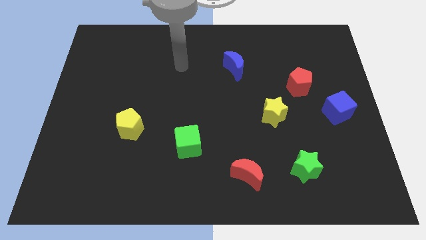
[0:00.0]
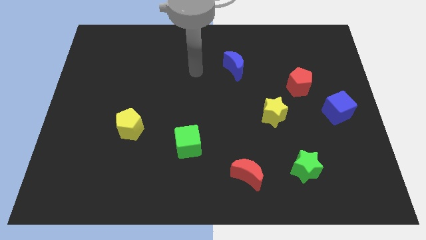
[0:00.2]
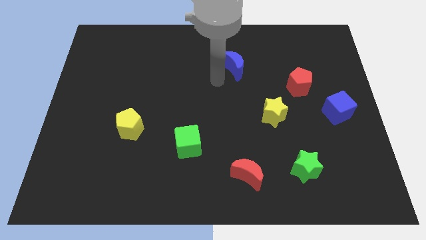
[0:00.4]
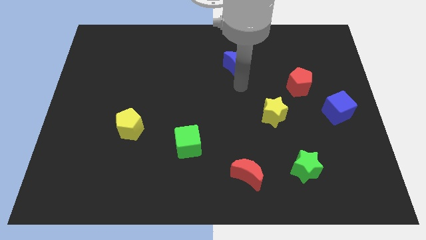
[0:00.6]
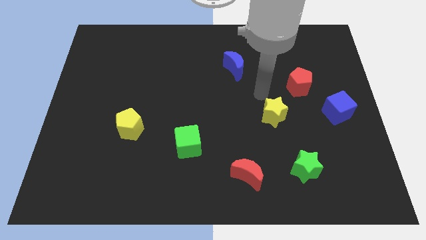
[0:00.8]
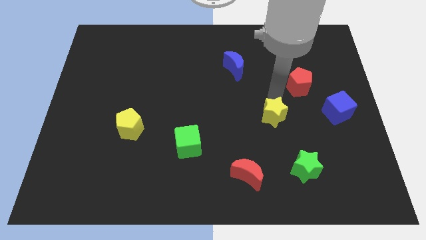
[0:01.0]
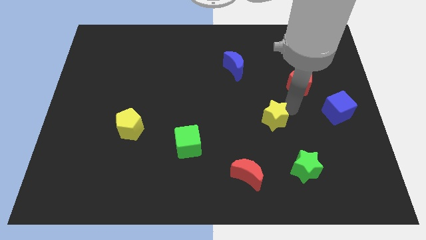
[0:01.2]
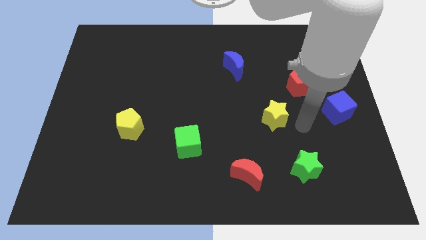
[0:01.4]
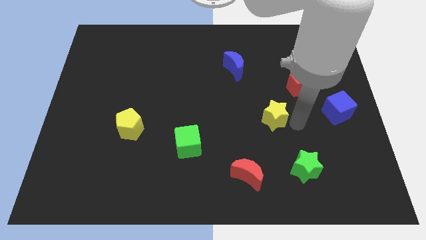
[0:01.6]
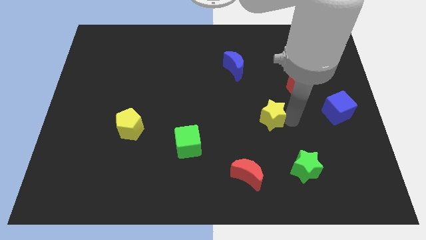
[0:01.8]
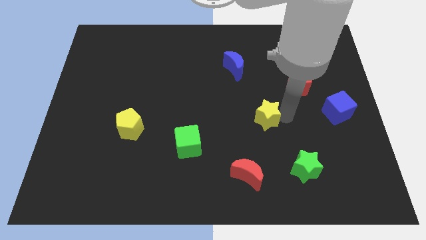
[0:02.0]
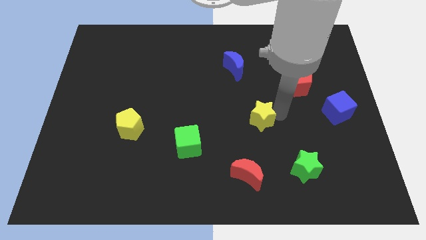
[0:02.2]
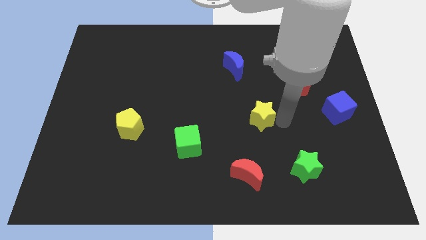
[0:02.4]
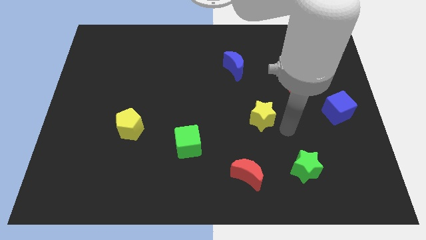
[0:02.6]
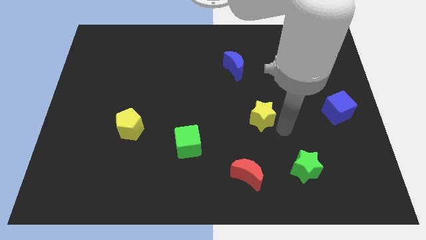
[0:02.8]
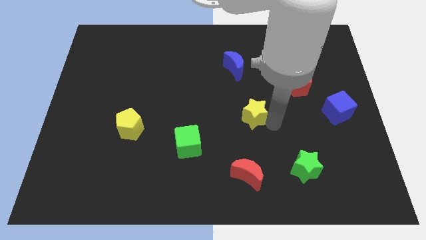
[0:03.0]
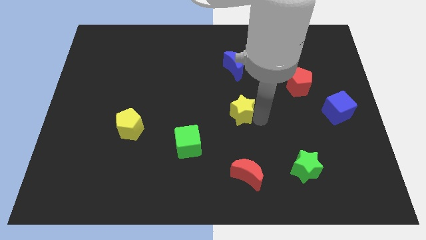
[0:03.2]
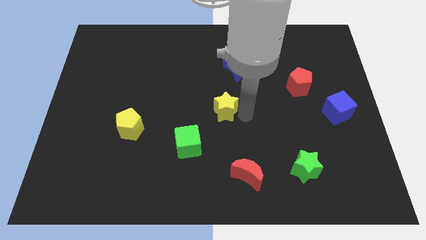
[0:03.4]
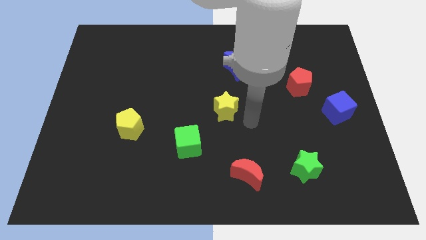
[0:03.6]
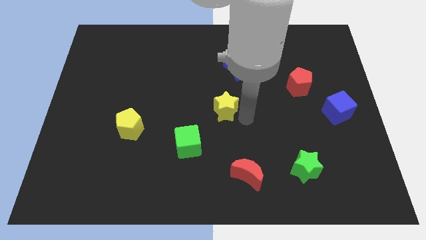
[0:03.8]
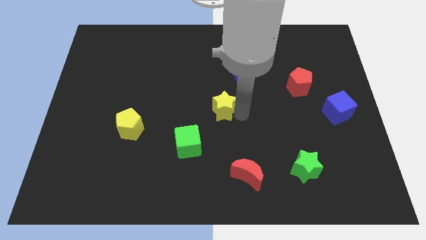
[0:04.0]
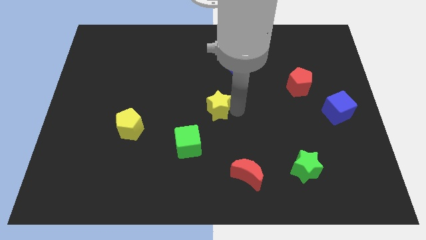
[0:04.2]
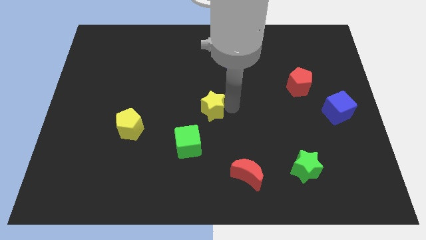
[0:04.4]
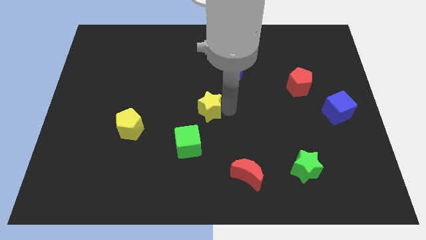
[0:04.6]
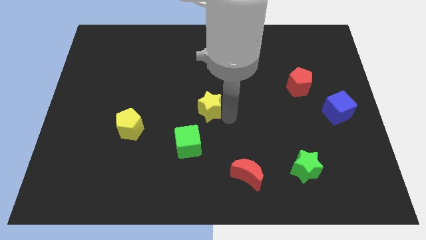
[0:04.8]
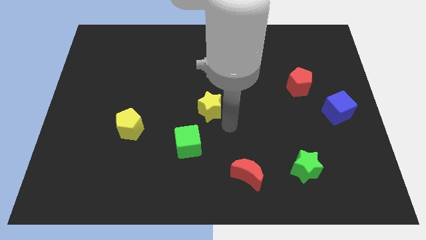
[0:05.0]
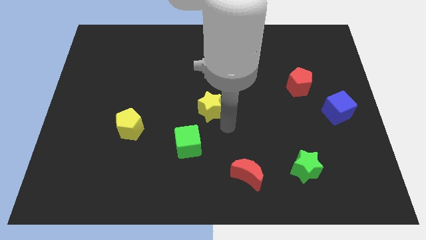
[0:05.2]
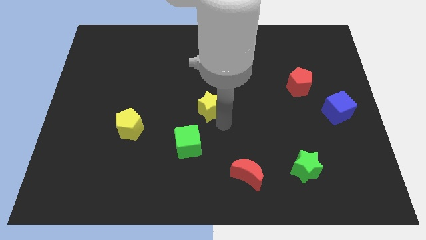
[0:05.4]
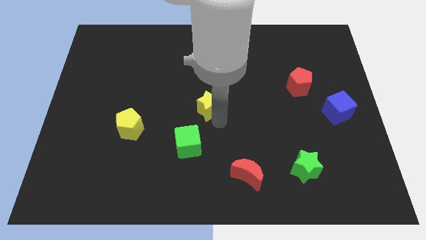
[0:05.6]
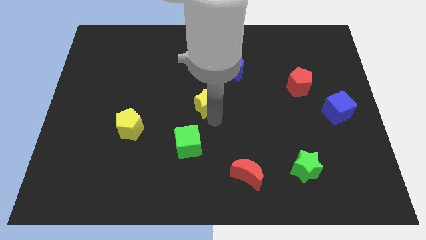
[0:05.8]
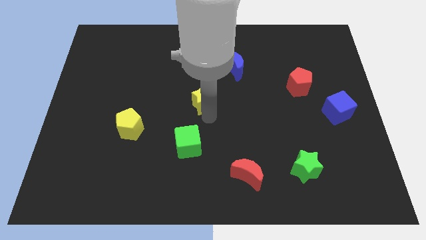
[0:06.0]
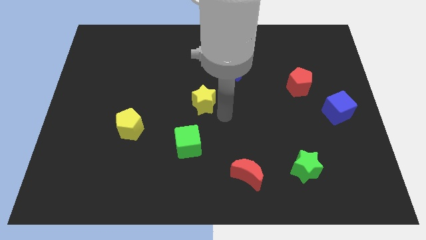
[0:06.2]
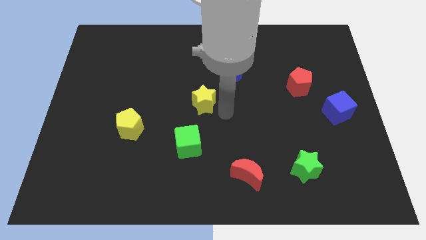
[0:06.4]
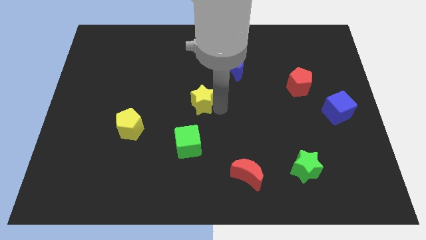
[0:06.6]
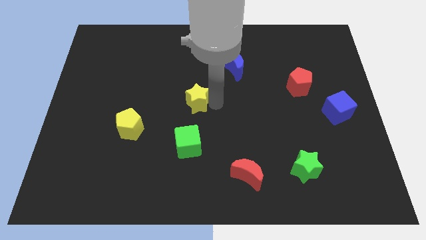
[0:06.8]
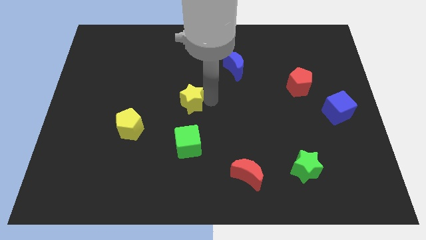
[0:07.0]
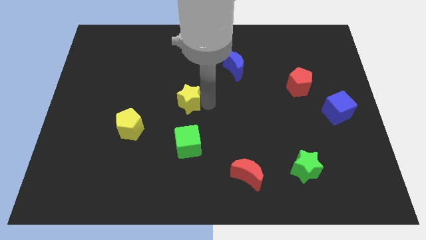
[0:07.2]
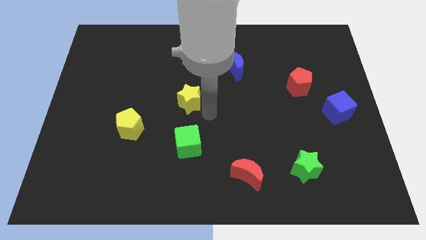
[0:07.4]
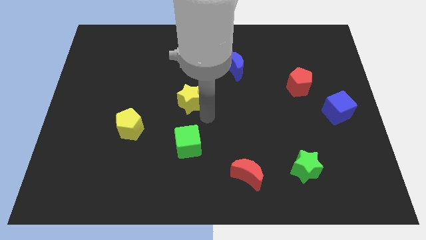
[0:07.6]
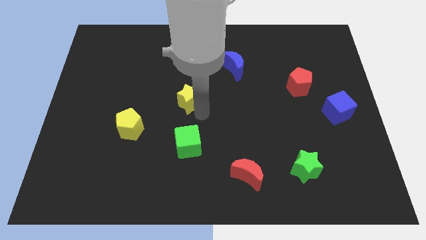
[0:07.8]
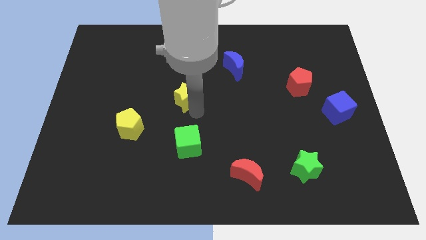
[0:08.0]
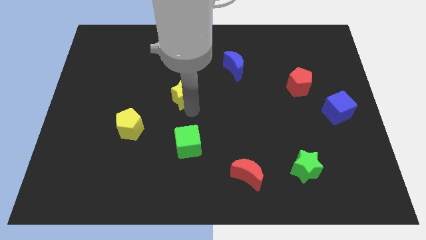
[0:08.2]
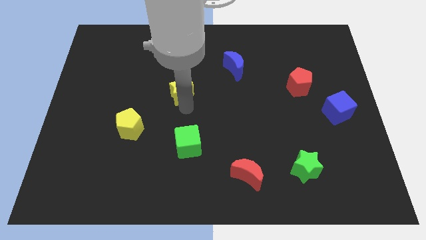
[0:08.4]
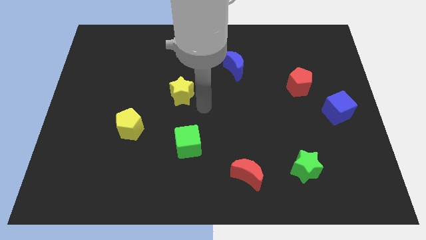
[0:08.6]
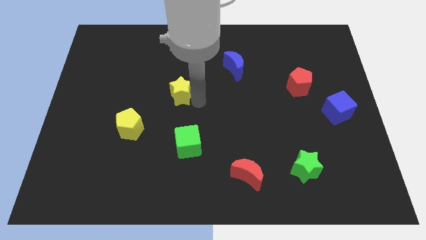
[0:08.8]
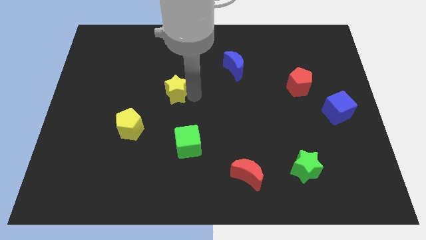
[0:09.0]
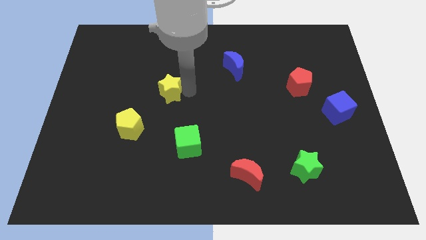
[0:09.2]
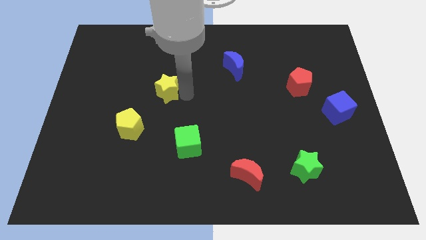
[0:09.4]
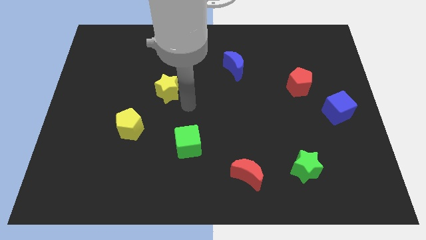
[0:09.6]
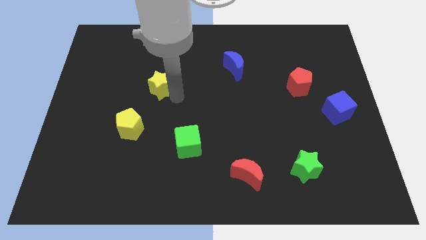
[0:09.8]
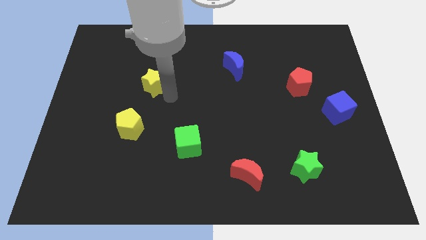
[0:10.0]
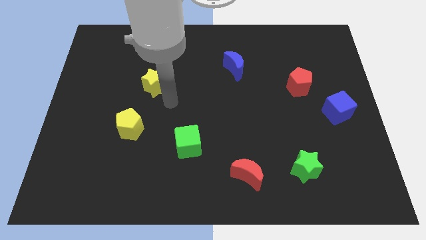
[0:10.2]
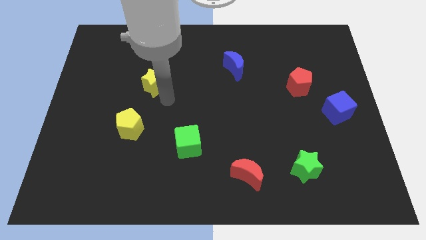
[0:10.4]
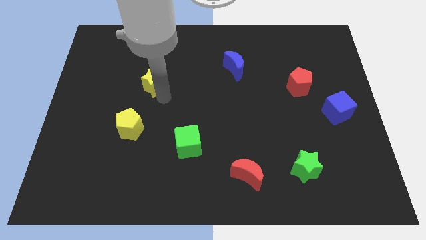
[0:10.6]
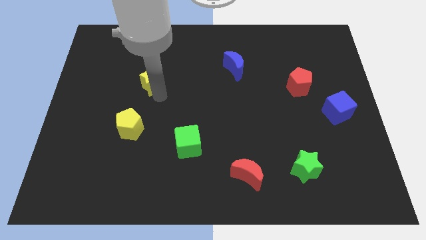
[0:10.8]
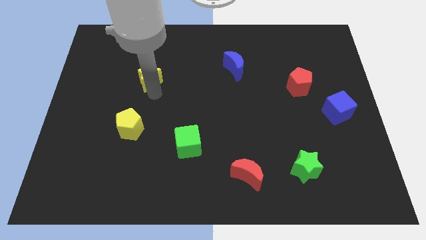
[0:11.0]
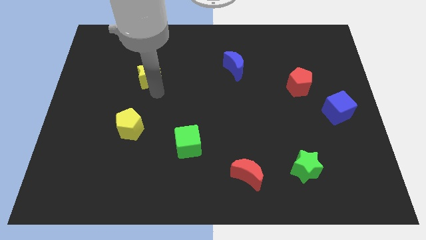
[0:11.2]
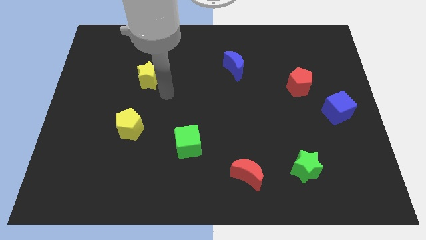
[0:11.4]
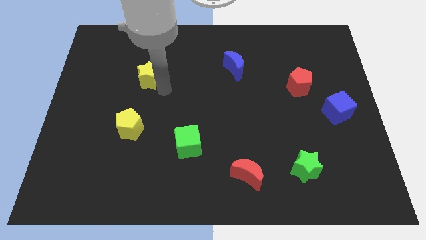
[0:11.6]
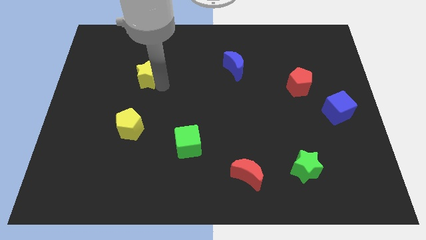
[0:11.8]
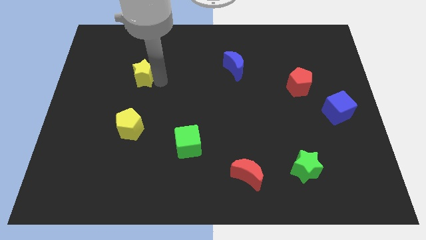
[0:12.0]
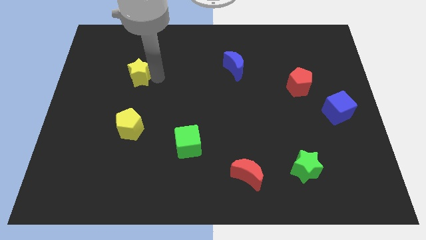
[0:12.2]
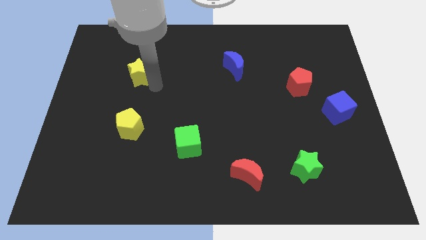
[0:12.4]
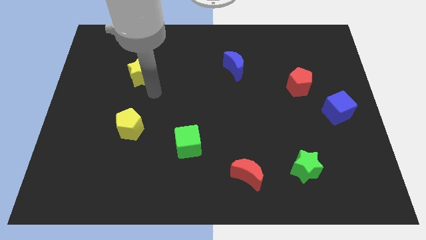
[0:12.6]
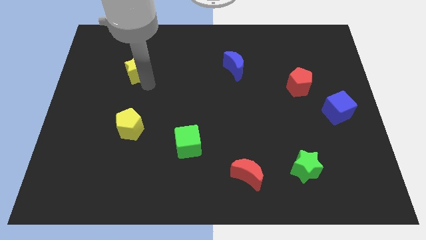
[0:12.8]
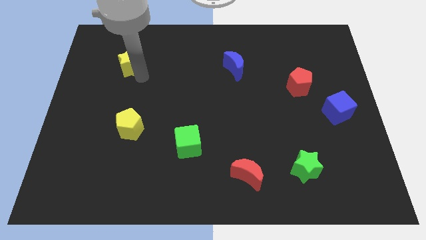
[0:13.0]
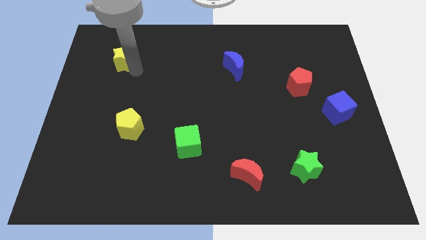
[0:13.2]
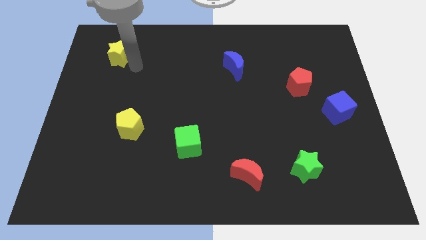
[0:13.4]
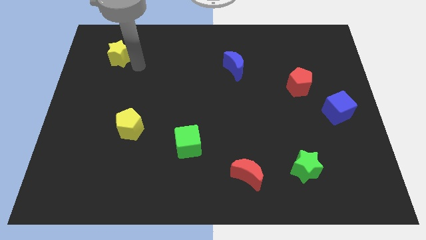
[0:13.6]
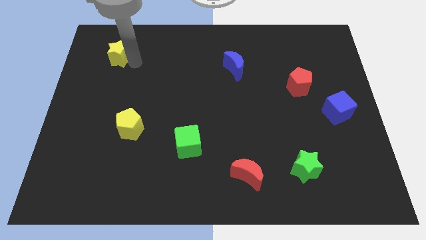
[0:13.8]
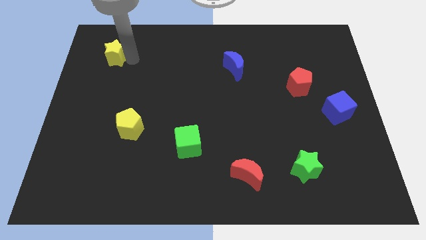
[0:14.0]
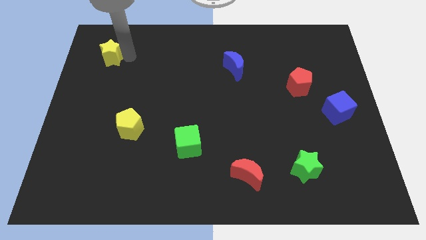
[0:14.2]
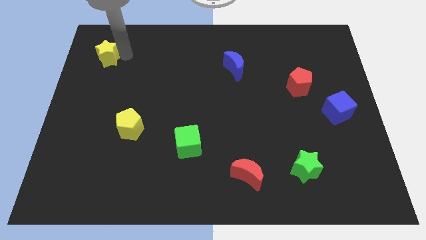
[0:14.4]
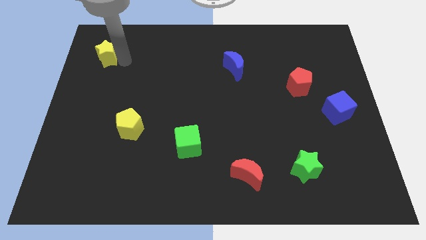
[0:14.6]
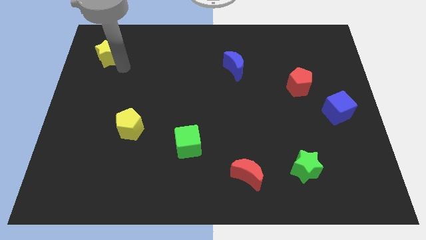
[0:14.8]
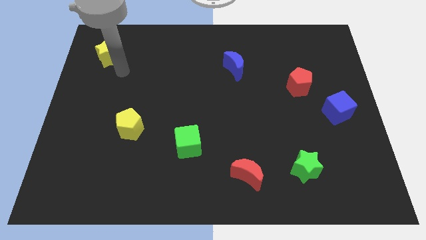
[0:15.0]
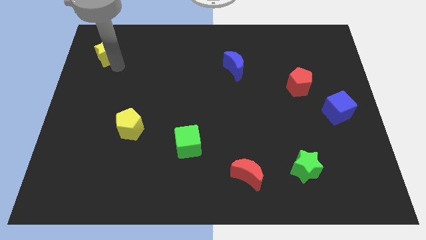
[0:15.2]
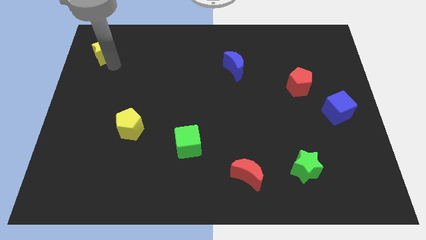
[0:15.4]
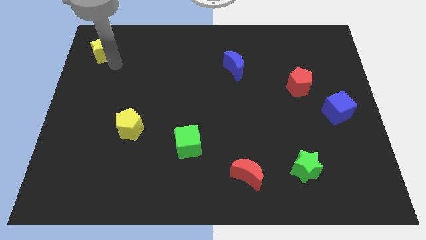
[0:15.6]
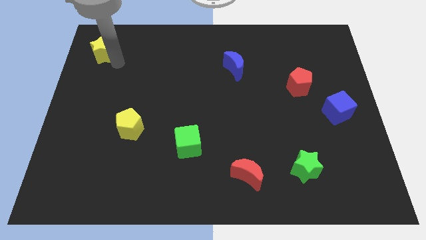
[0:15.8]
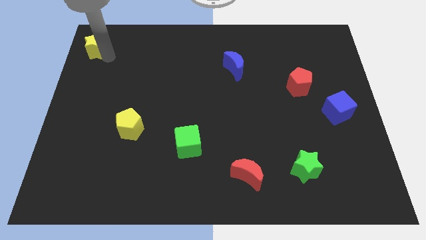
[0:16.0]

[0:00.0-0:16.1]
push the yellow star to the top left
